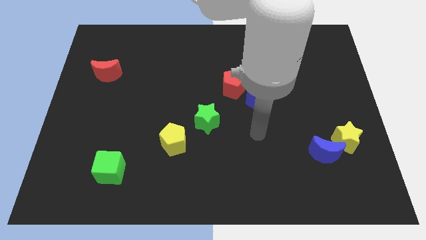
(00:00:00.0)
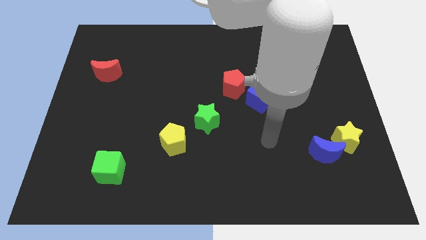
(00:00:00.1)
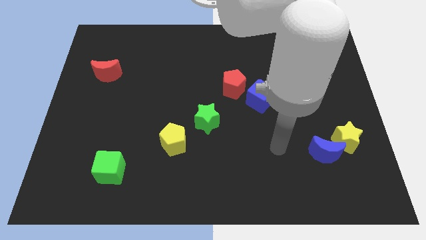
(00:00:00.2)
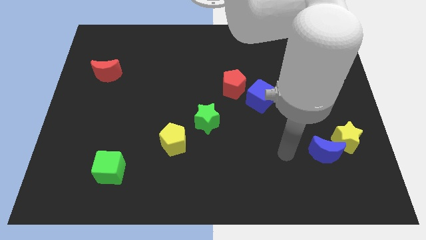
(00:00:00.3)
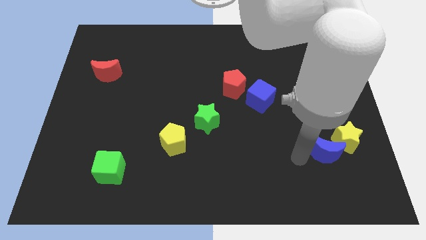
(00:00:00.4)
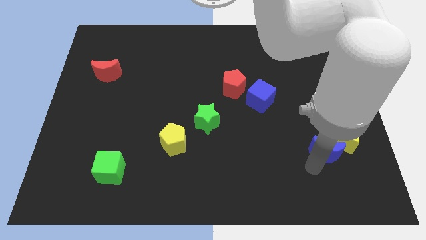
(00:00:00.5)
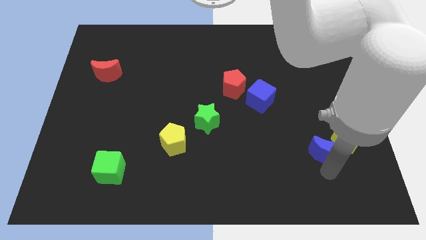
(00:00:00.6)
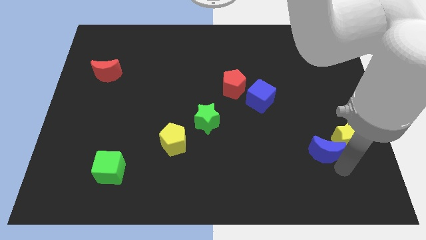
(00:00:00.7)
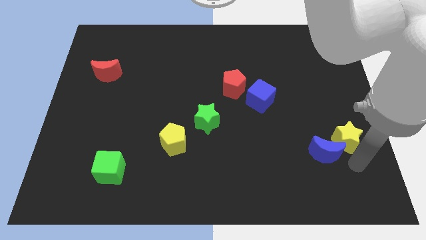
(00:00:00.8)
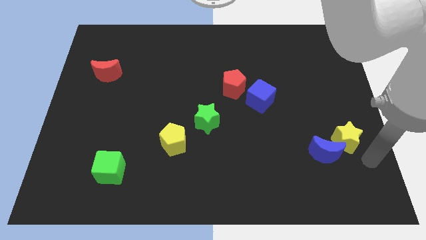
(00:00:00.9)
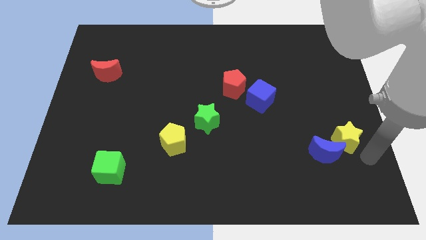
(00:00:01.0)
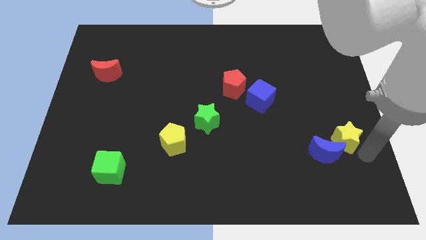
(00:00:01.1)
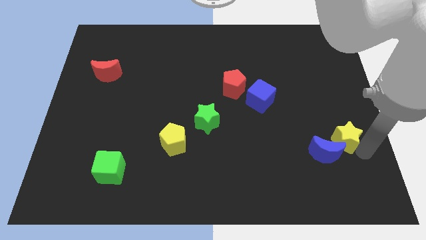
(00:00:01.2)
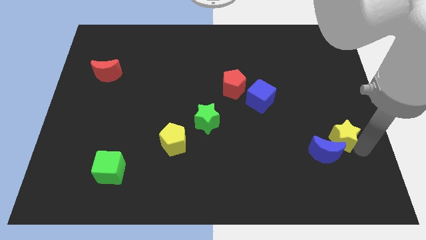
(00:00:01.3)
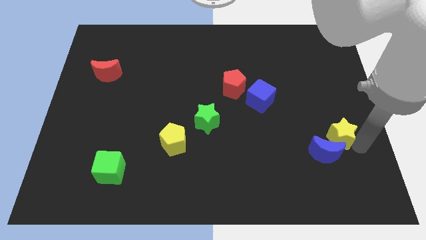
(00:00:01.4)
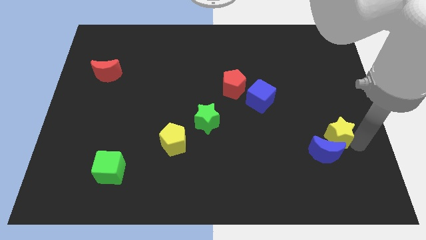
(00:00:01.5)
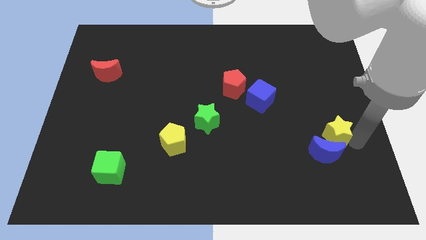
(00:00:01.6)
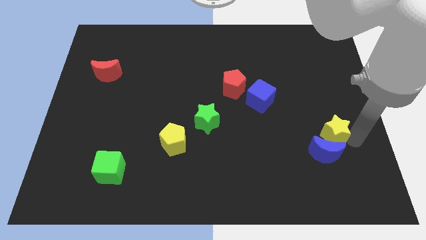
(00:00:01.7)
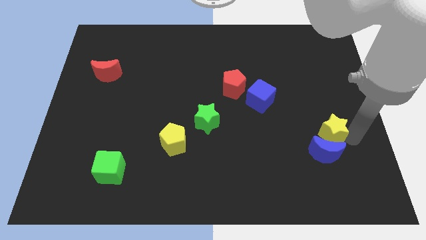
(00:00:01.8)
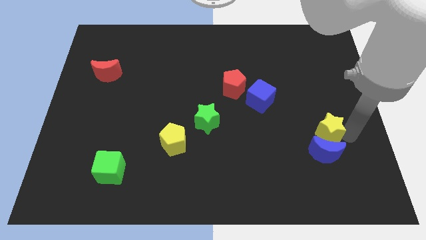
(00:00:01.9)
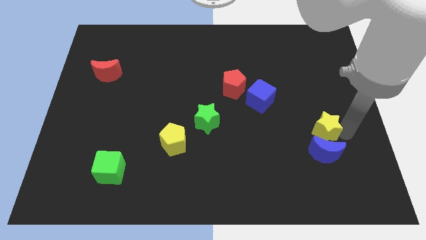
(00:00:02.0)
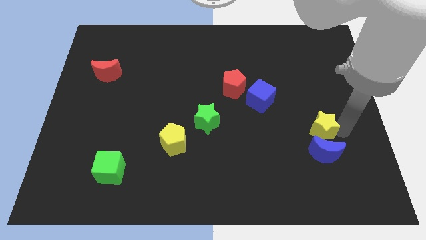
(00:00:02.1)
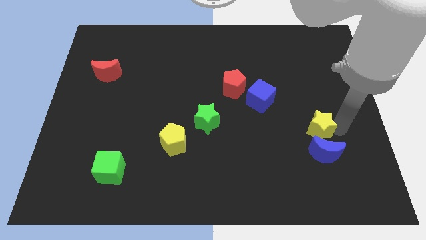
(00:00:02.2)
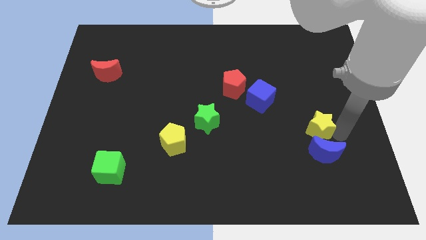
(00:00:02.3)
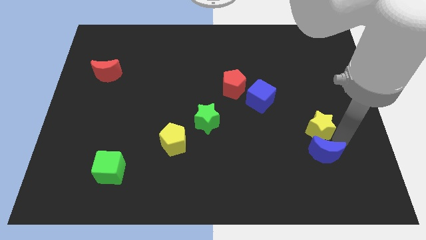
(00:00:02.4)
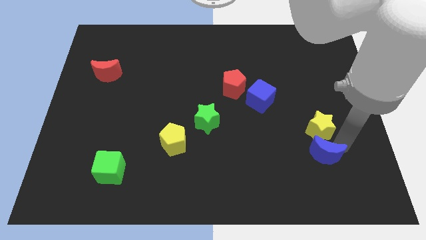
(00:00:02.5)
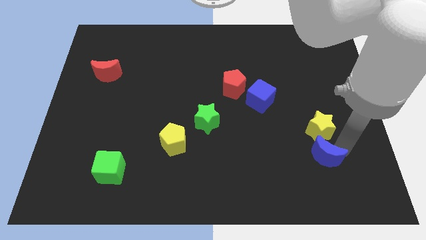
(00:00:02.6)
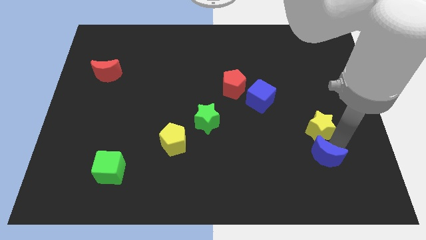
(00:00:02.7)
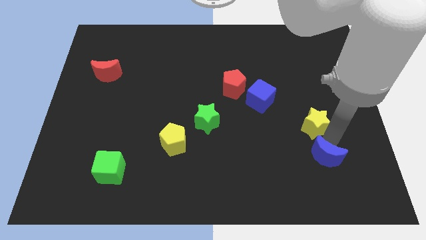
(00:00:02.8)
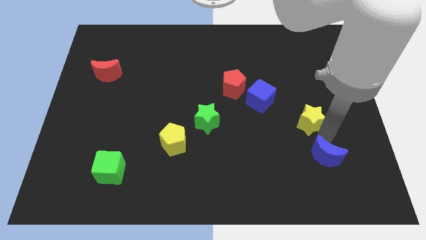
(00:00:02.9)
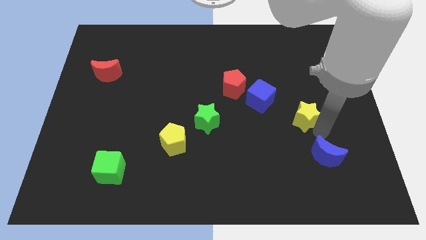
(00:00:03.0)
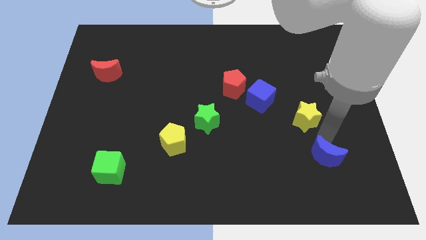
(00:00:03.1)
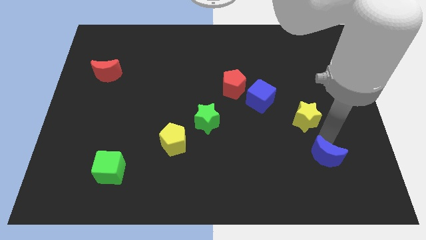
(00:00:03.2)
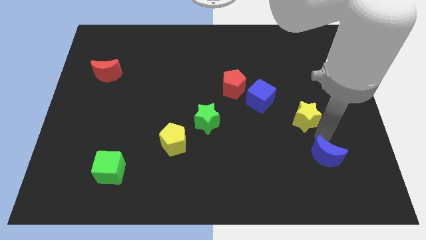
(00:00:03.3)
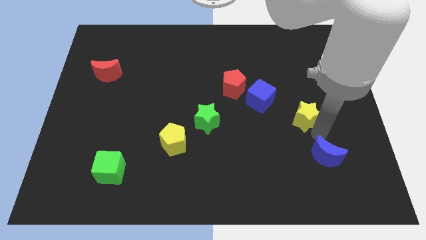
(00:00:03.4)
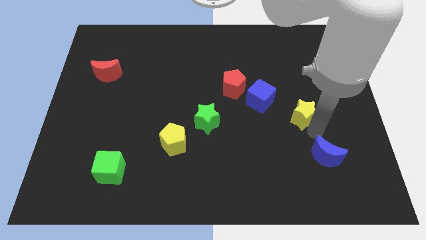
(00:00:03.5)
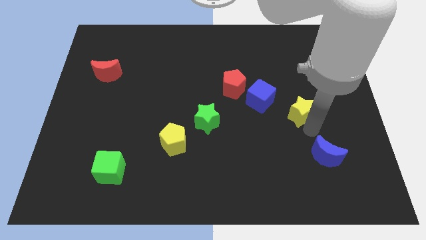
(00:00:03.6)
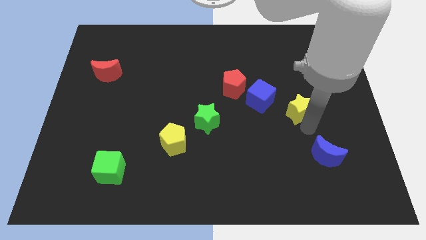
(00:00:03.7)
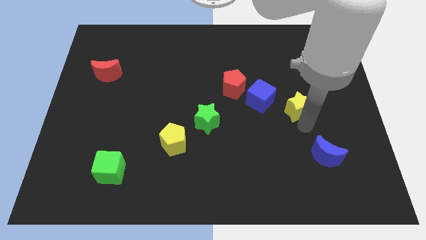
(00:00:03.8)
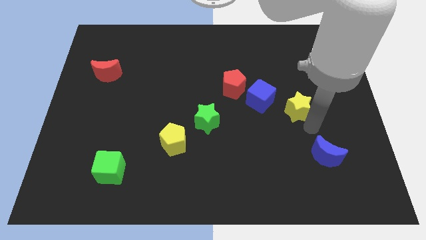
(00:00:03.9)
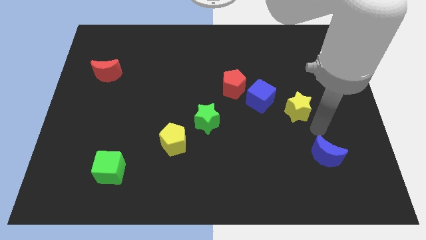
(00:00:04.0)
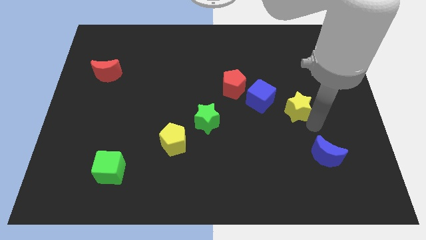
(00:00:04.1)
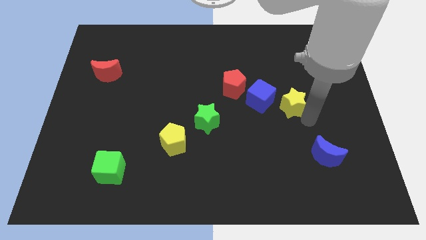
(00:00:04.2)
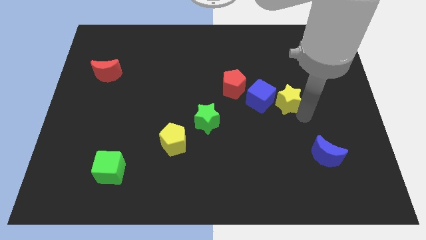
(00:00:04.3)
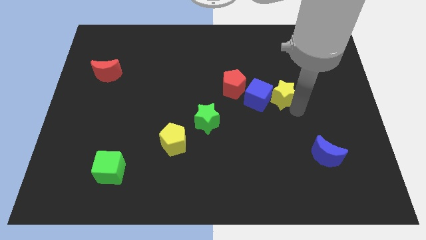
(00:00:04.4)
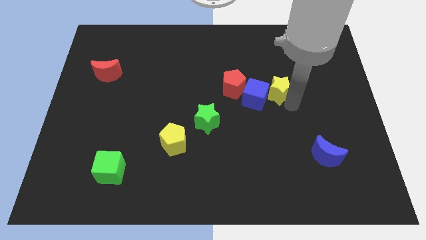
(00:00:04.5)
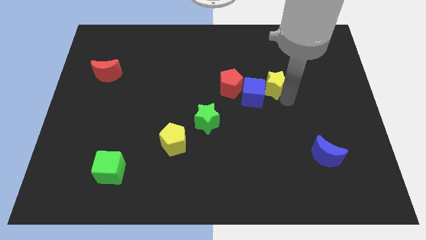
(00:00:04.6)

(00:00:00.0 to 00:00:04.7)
slide the yellow star up and left diagonally

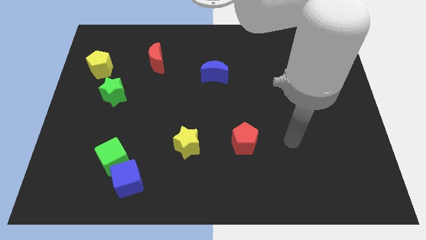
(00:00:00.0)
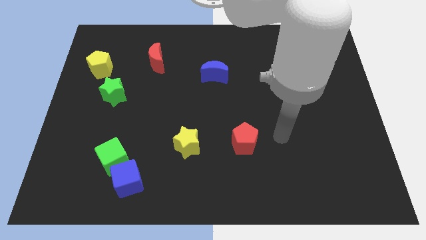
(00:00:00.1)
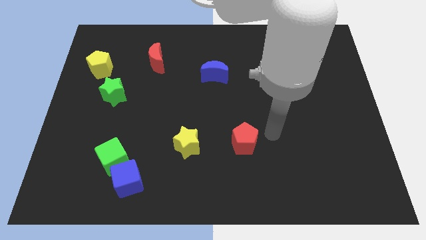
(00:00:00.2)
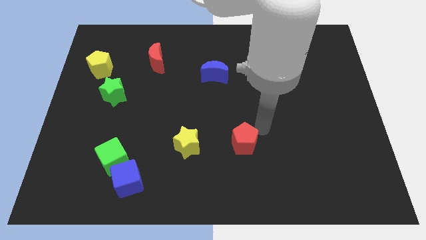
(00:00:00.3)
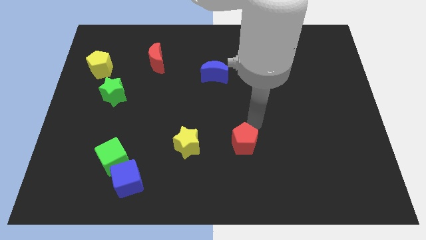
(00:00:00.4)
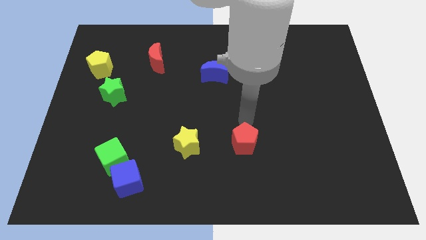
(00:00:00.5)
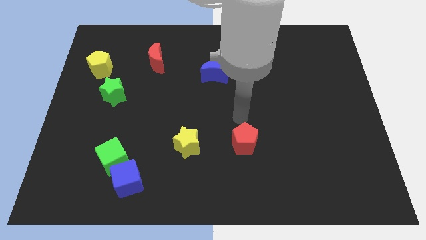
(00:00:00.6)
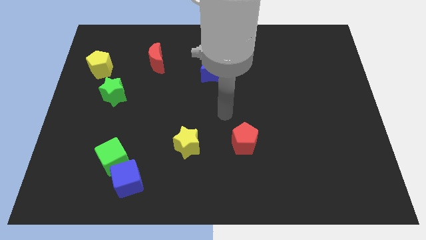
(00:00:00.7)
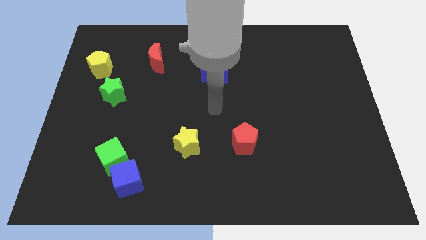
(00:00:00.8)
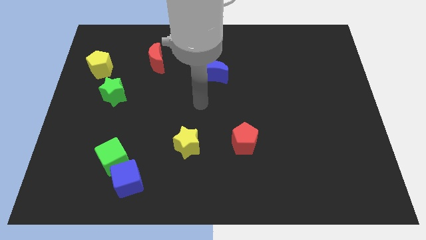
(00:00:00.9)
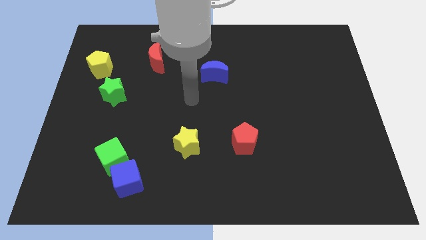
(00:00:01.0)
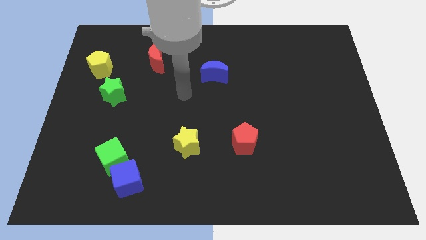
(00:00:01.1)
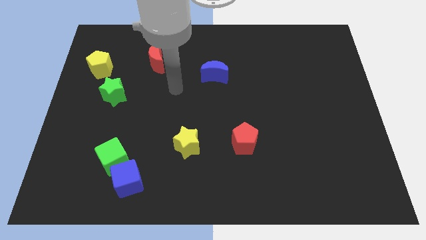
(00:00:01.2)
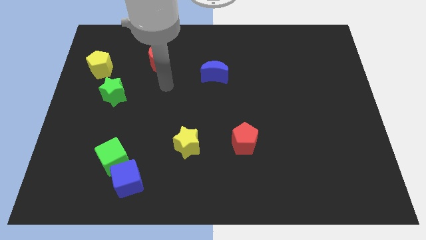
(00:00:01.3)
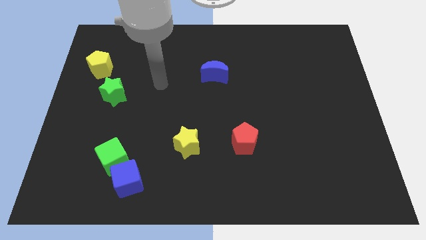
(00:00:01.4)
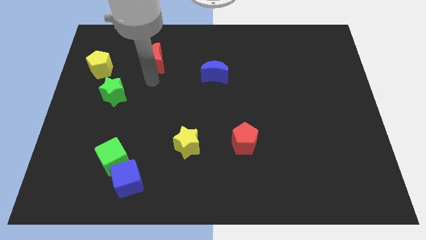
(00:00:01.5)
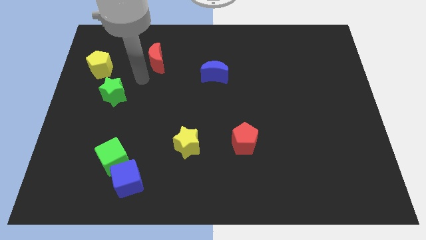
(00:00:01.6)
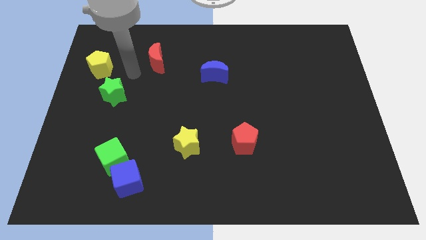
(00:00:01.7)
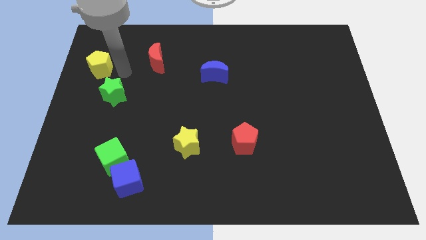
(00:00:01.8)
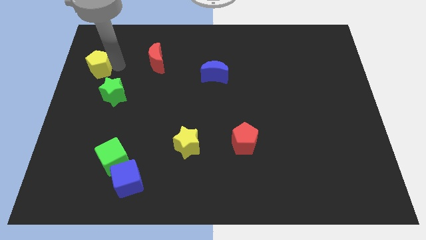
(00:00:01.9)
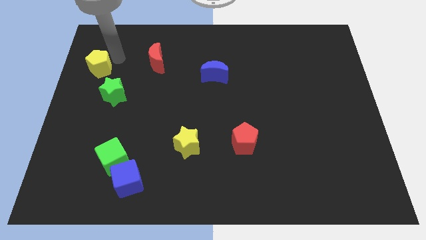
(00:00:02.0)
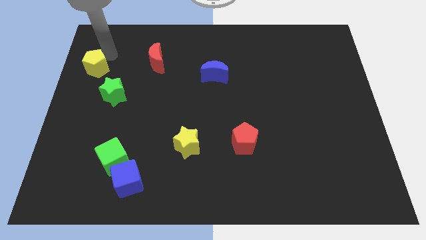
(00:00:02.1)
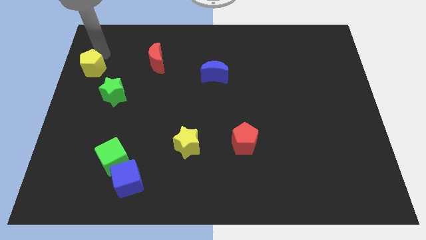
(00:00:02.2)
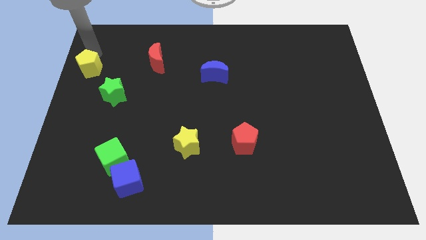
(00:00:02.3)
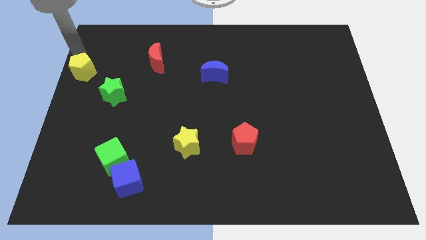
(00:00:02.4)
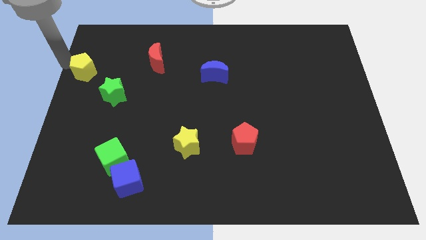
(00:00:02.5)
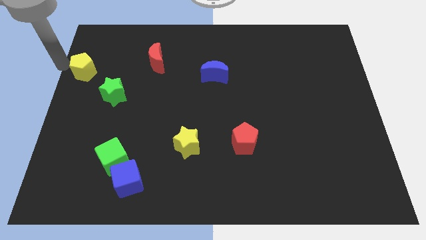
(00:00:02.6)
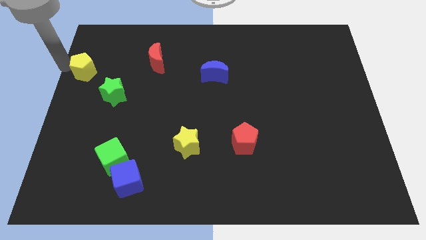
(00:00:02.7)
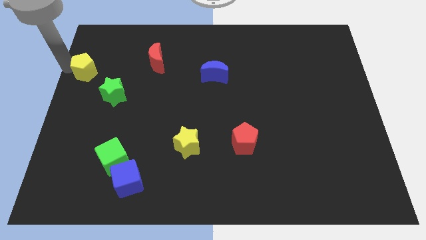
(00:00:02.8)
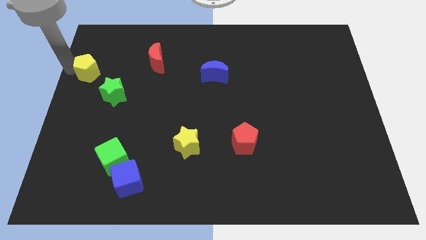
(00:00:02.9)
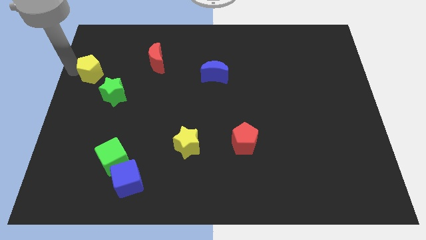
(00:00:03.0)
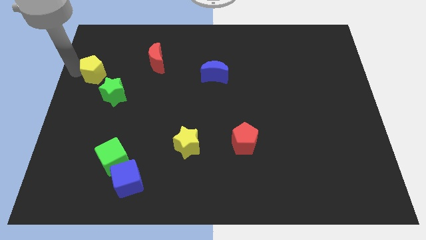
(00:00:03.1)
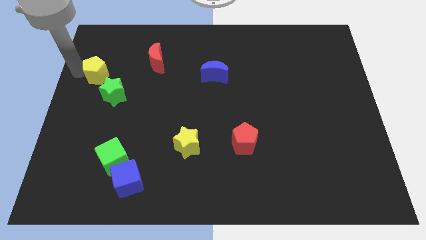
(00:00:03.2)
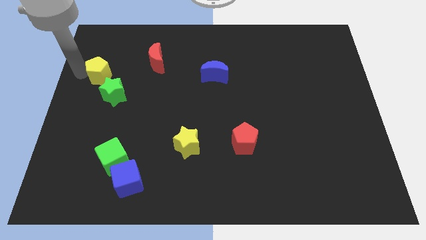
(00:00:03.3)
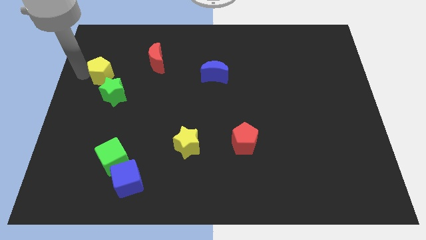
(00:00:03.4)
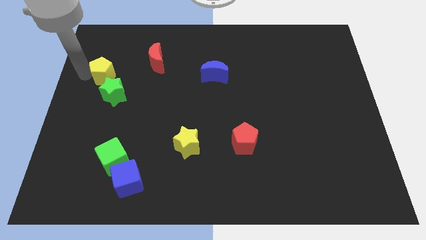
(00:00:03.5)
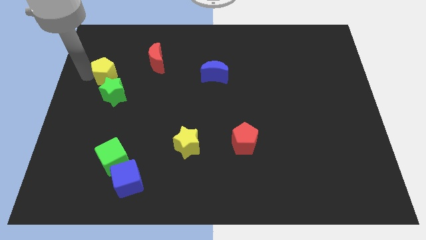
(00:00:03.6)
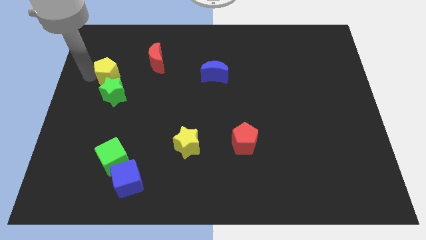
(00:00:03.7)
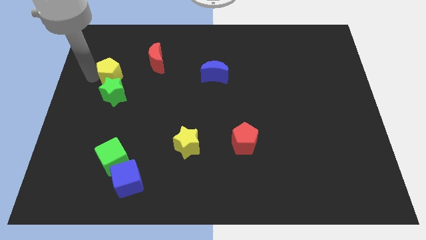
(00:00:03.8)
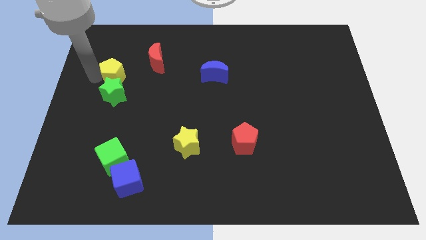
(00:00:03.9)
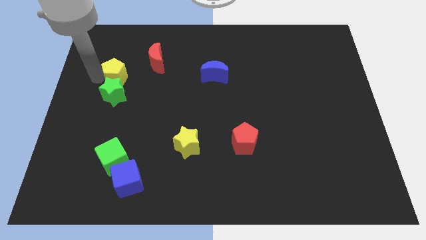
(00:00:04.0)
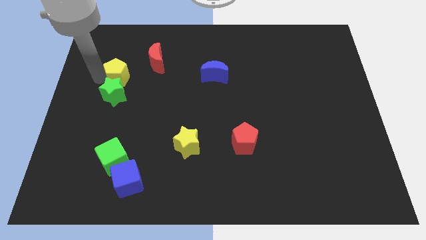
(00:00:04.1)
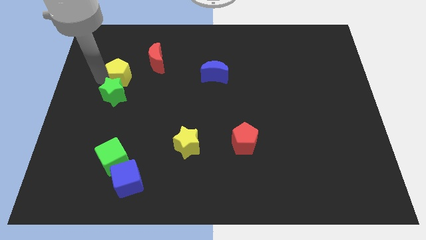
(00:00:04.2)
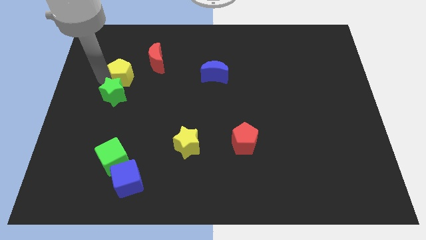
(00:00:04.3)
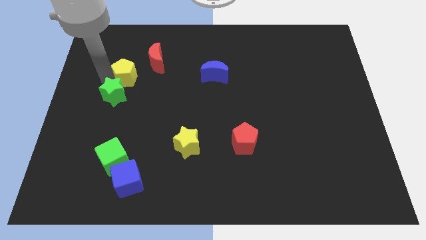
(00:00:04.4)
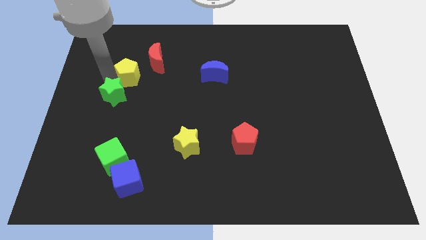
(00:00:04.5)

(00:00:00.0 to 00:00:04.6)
move the yellow pentagon to the right a bit
